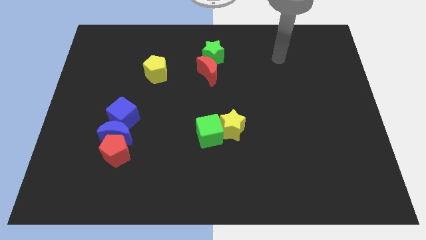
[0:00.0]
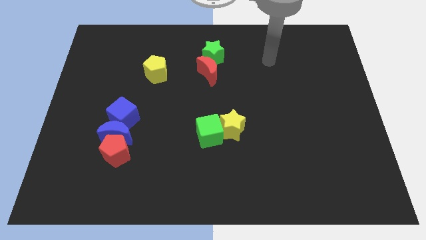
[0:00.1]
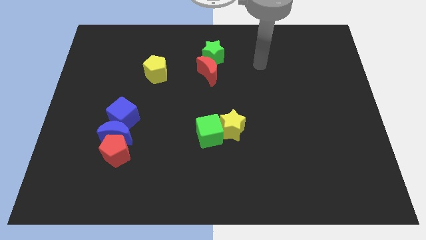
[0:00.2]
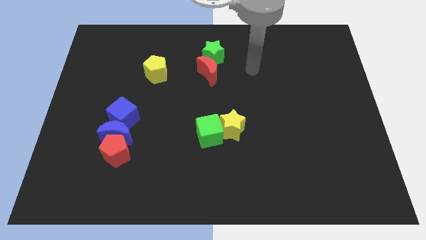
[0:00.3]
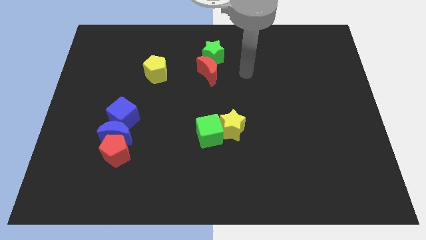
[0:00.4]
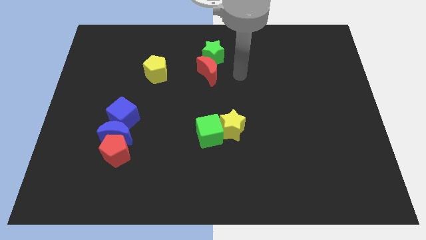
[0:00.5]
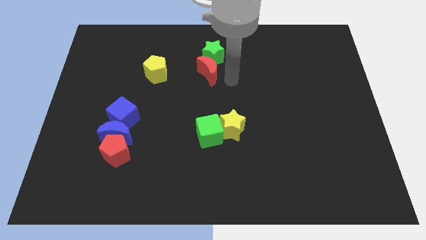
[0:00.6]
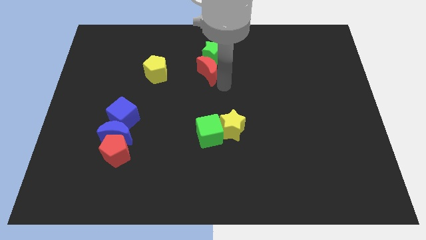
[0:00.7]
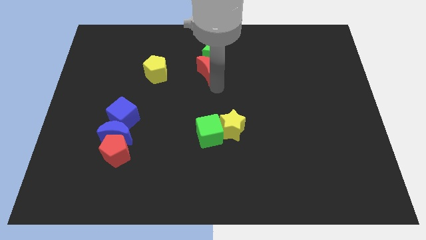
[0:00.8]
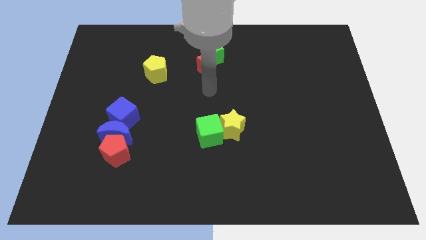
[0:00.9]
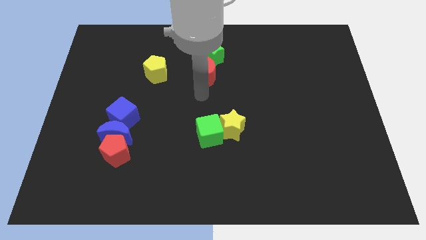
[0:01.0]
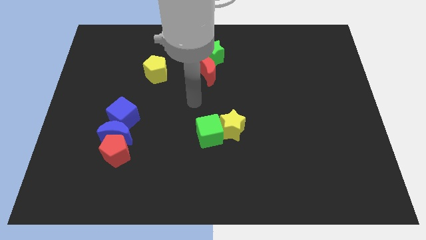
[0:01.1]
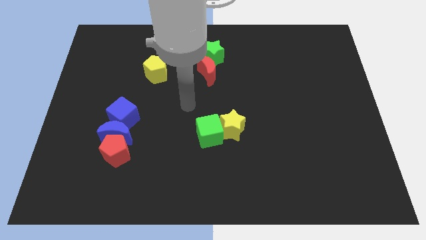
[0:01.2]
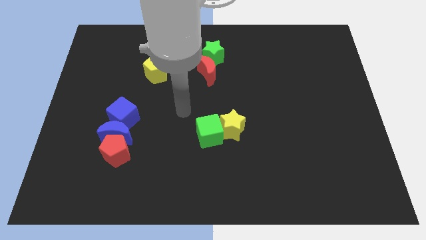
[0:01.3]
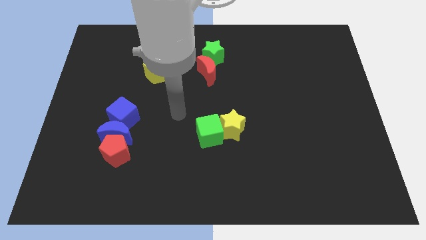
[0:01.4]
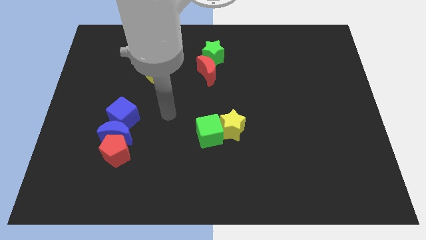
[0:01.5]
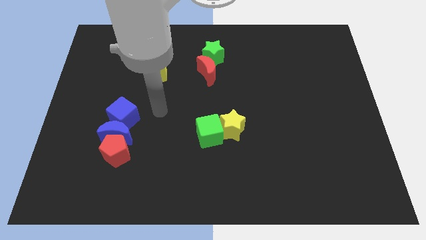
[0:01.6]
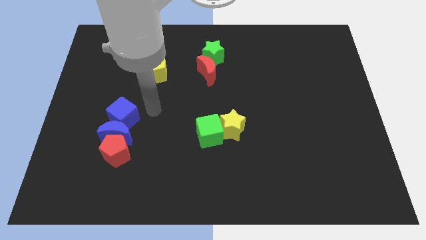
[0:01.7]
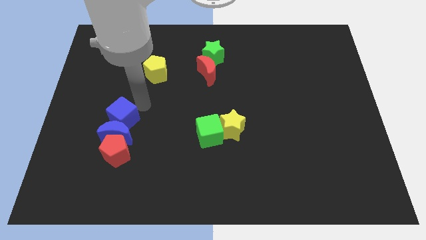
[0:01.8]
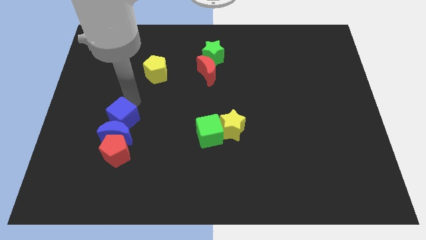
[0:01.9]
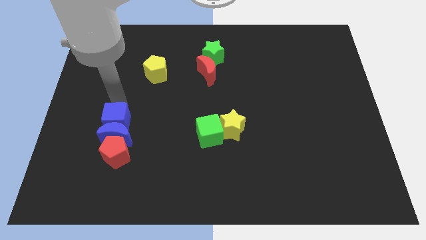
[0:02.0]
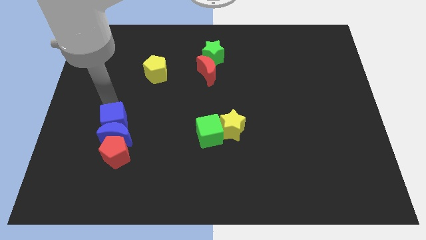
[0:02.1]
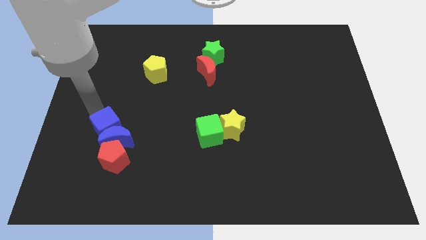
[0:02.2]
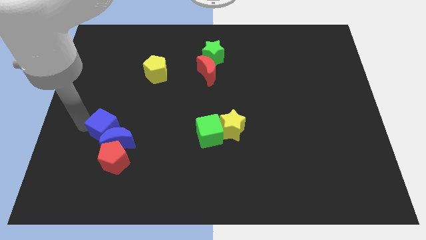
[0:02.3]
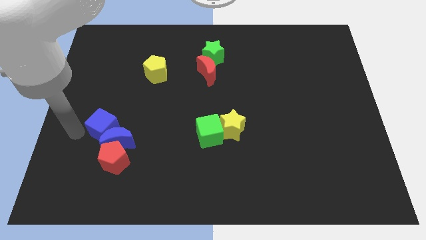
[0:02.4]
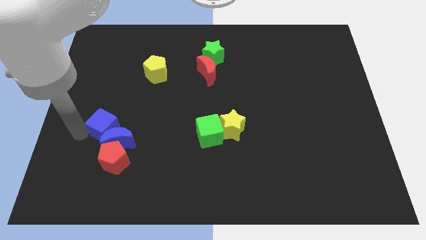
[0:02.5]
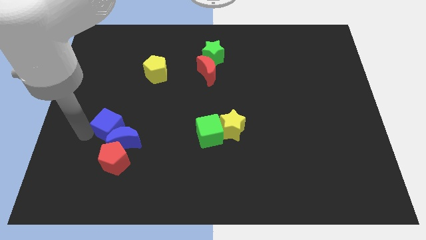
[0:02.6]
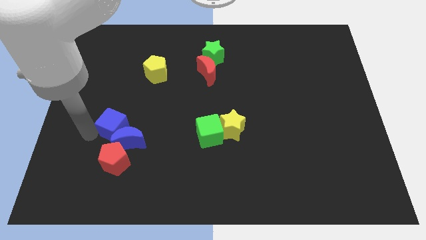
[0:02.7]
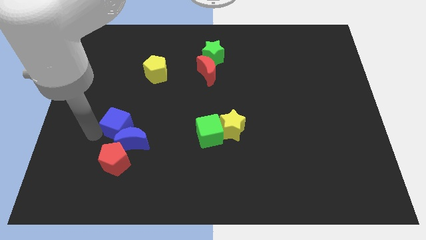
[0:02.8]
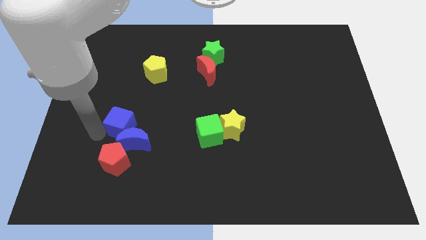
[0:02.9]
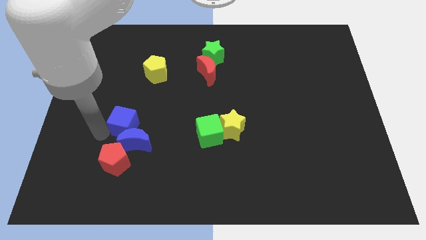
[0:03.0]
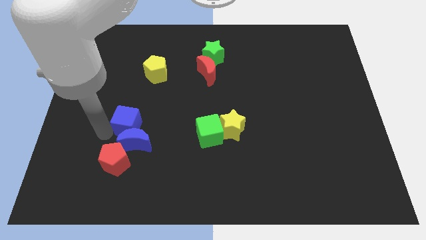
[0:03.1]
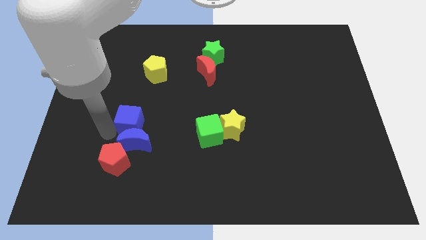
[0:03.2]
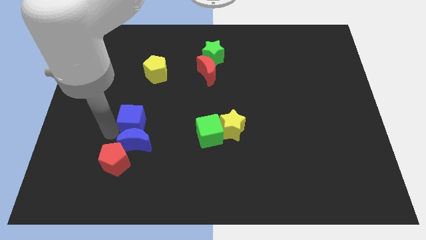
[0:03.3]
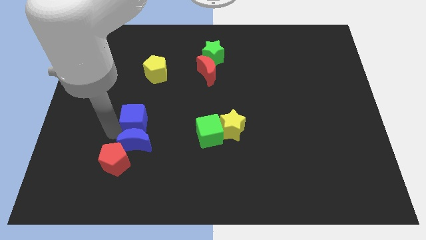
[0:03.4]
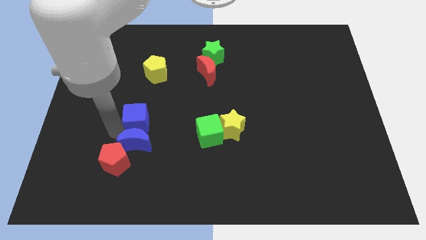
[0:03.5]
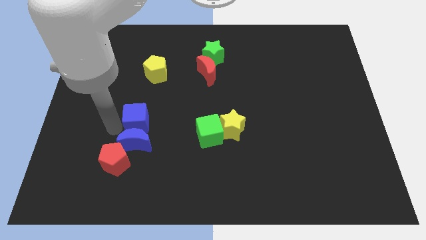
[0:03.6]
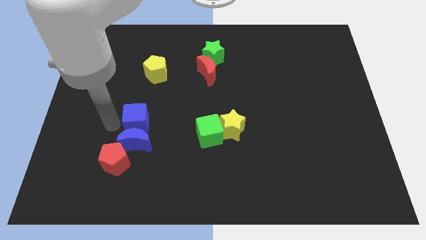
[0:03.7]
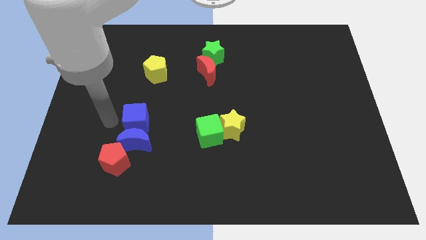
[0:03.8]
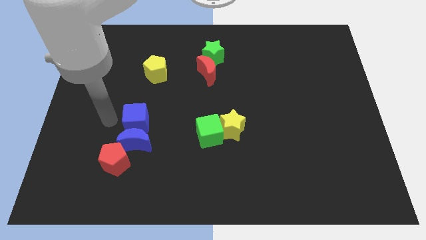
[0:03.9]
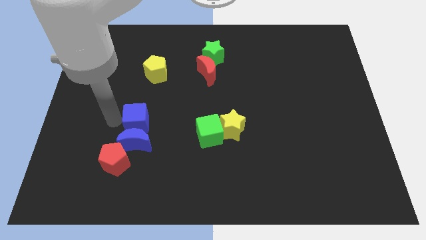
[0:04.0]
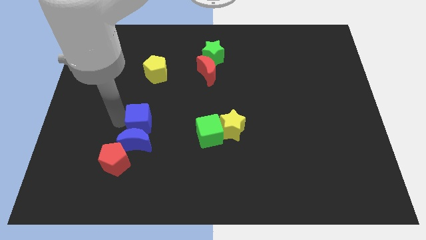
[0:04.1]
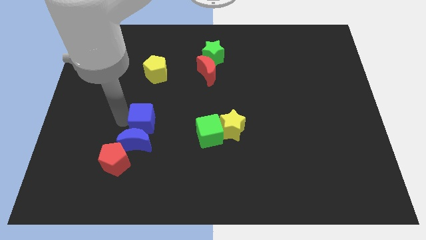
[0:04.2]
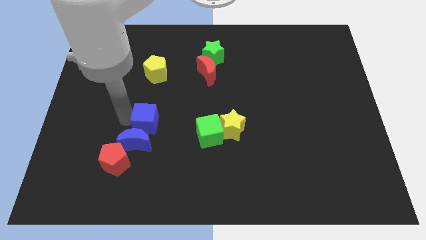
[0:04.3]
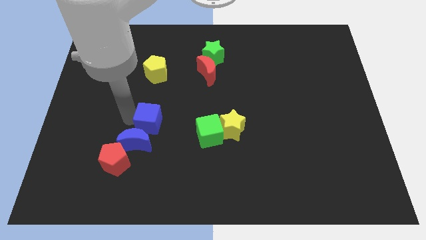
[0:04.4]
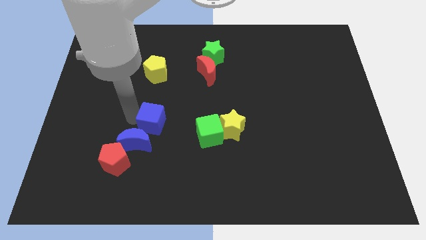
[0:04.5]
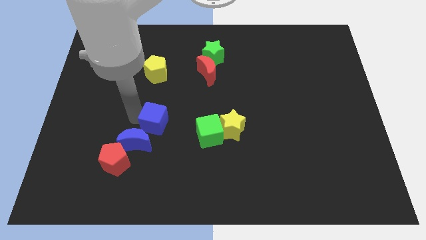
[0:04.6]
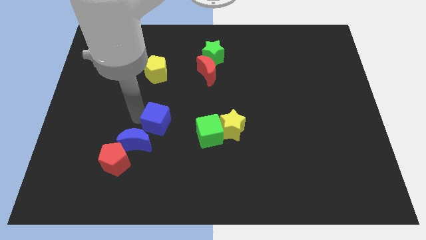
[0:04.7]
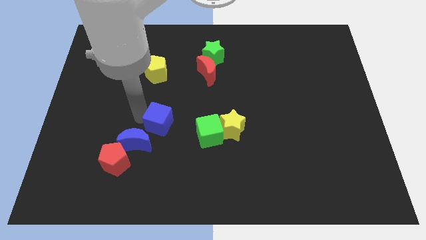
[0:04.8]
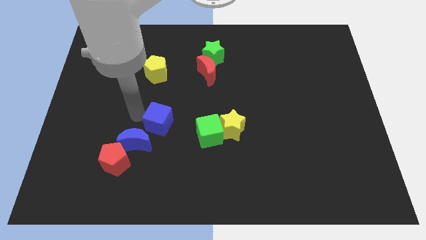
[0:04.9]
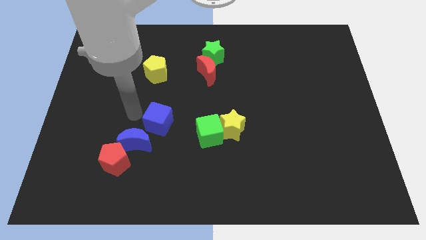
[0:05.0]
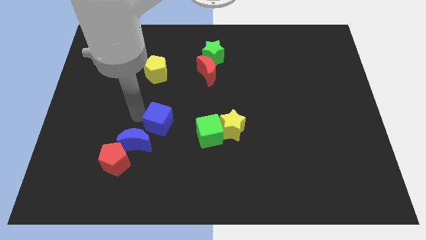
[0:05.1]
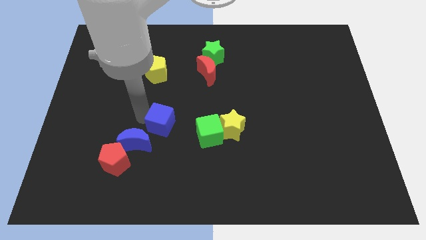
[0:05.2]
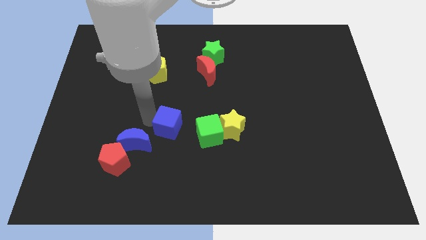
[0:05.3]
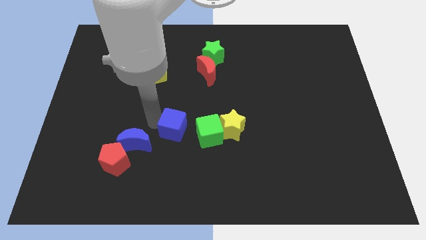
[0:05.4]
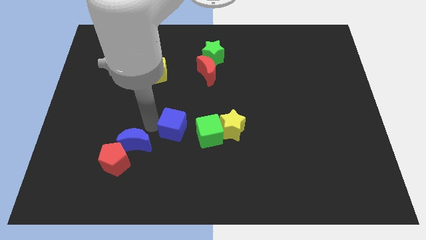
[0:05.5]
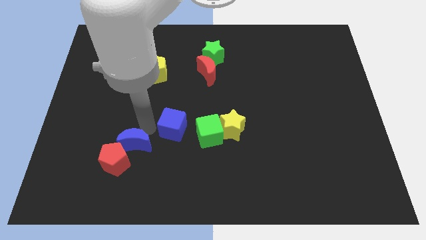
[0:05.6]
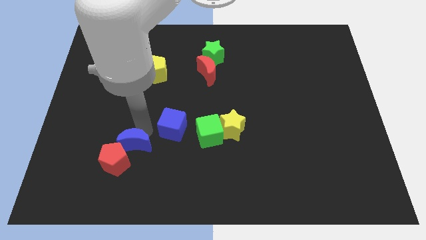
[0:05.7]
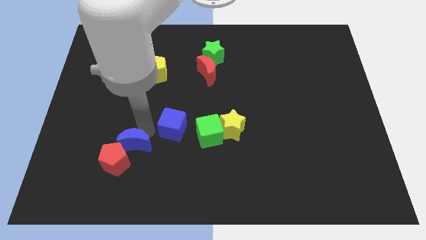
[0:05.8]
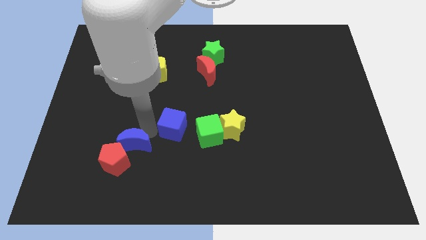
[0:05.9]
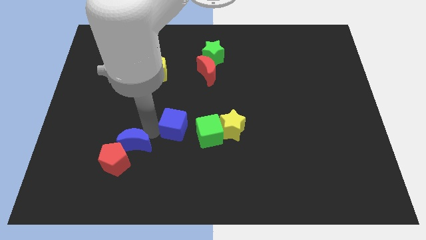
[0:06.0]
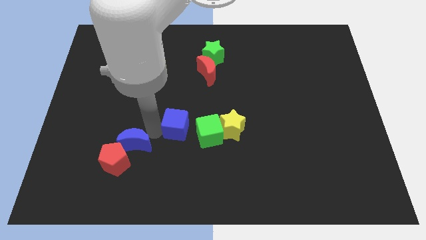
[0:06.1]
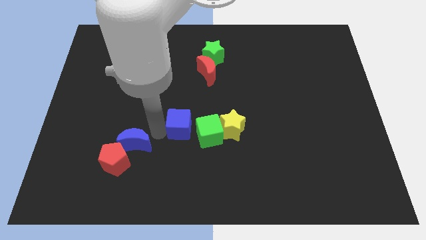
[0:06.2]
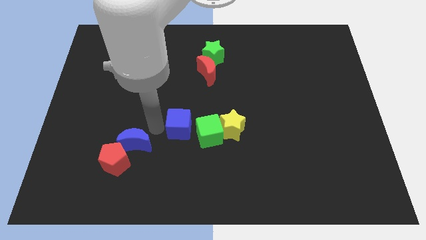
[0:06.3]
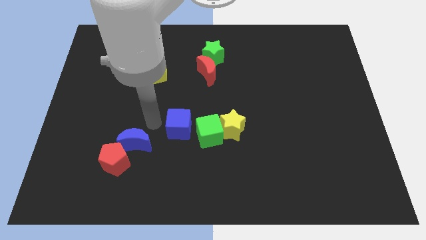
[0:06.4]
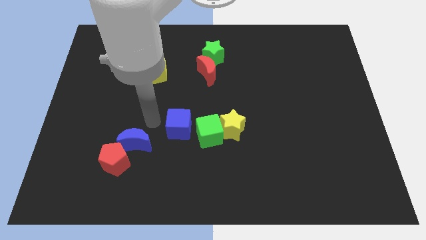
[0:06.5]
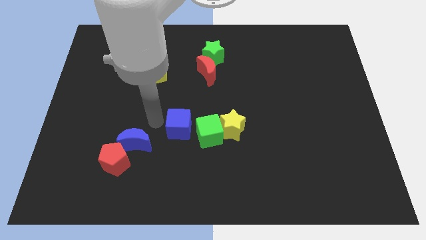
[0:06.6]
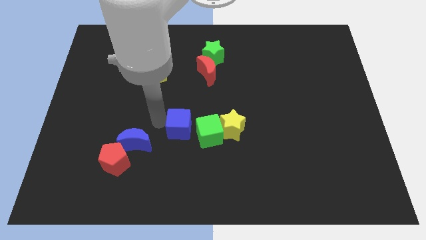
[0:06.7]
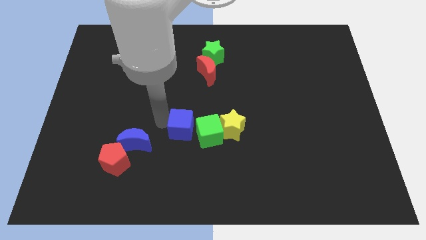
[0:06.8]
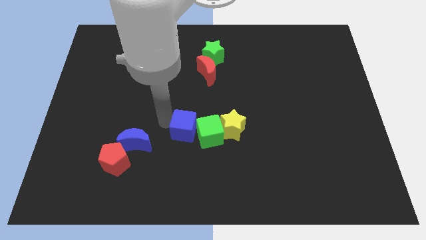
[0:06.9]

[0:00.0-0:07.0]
slide the blue cube next to the green cube
